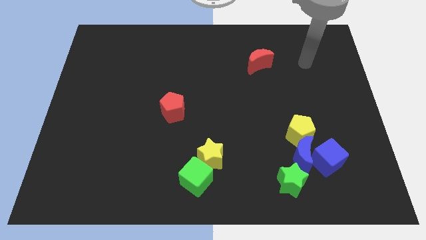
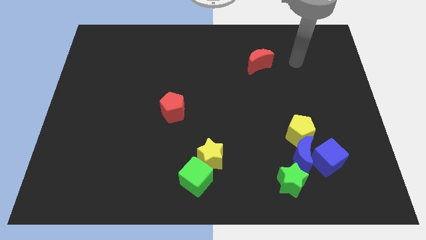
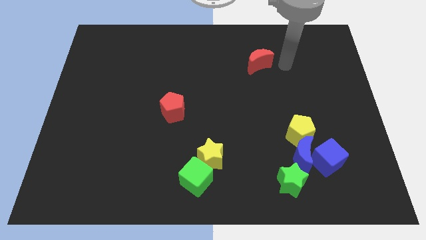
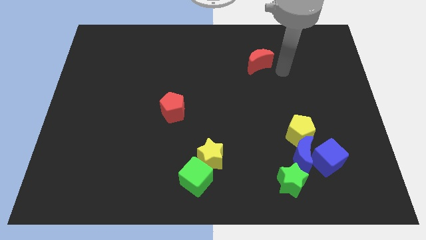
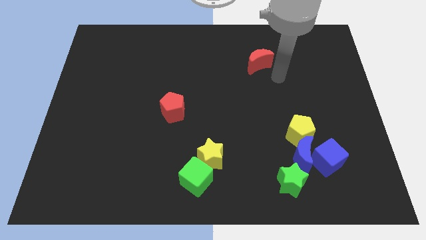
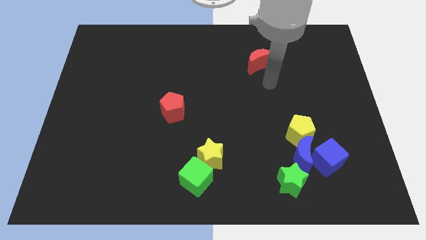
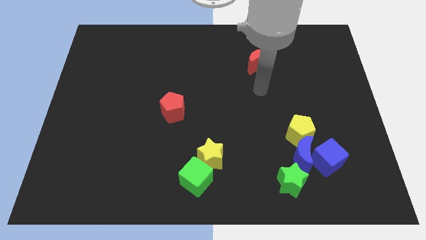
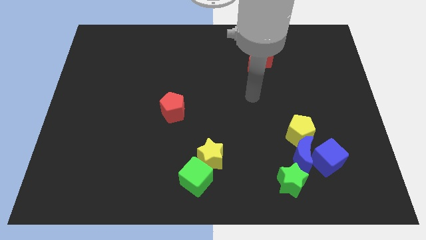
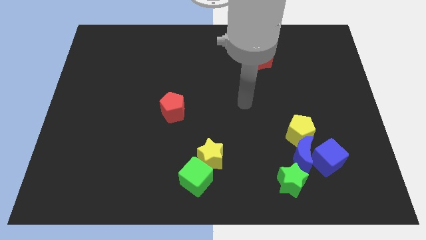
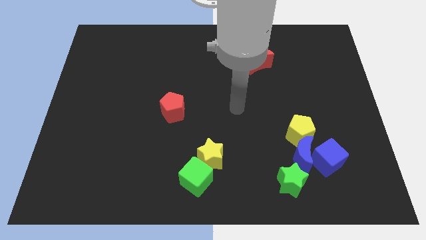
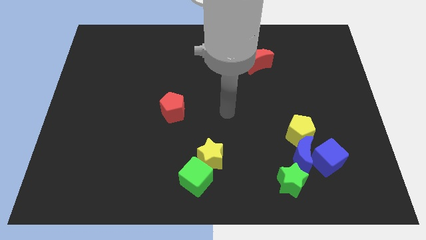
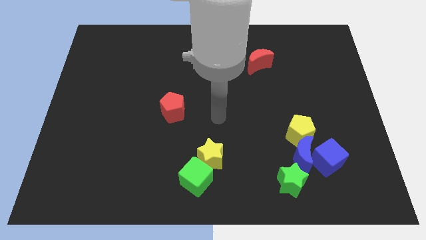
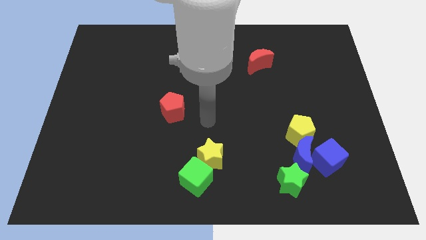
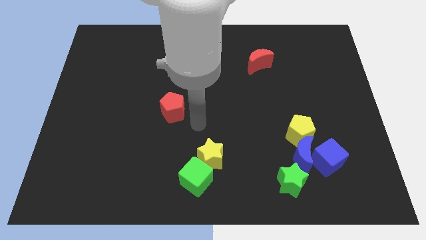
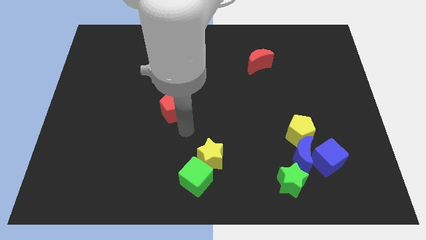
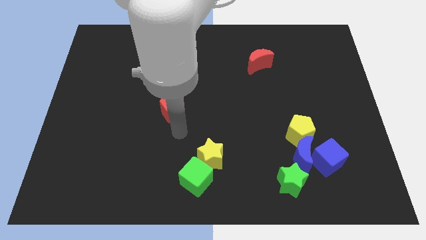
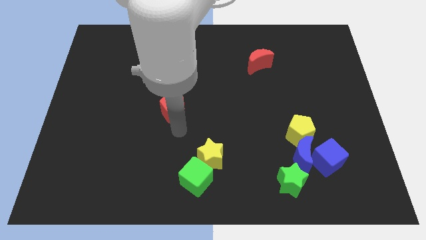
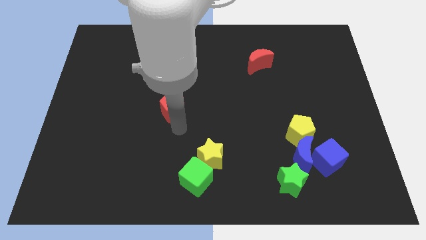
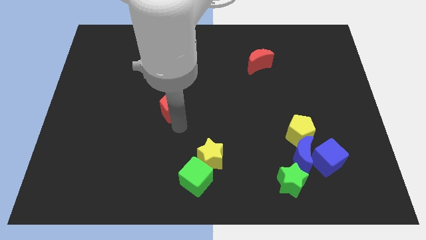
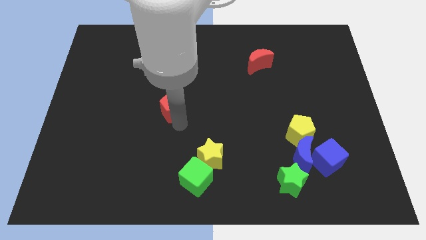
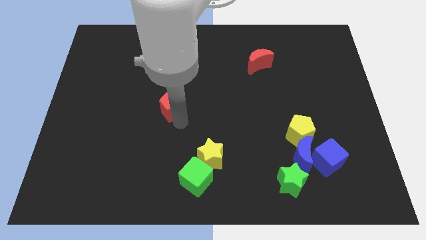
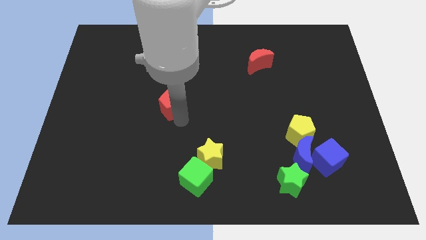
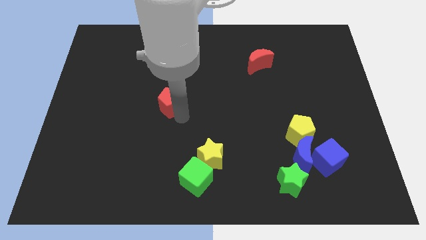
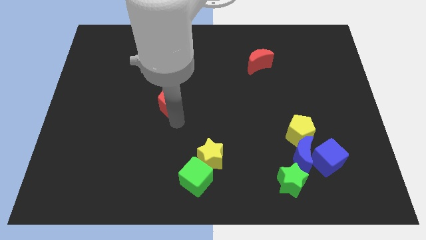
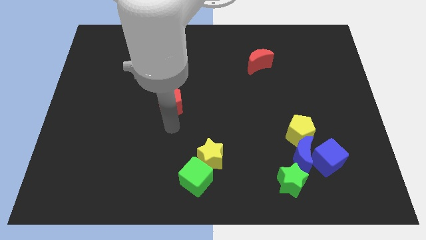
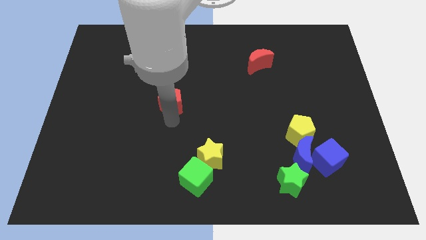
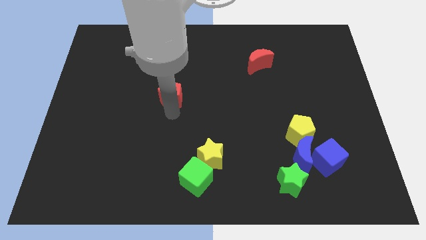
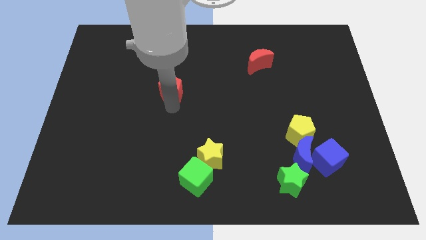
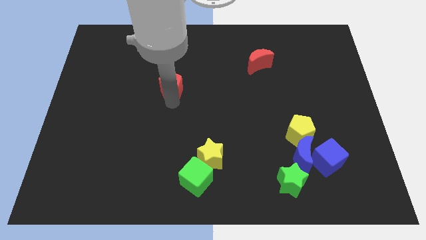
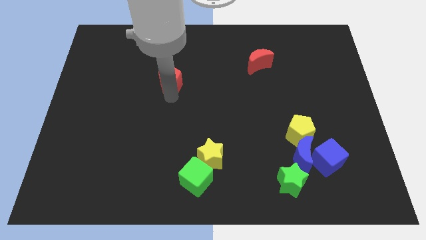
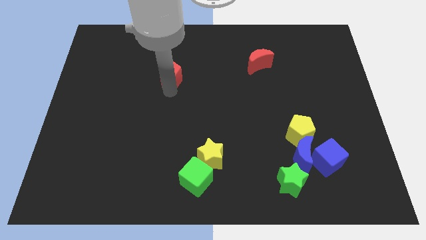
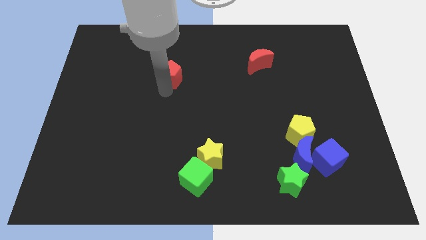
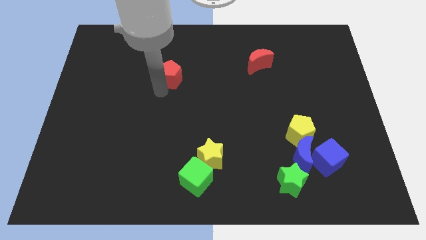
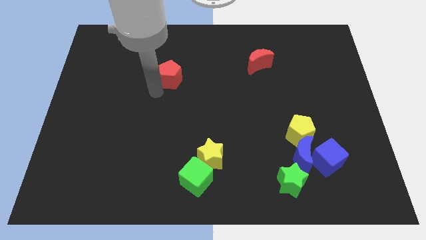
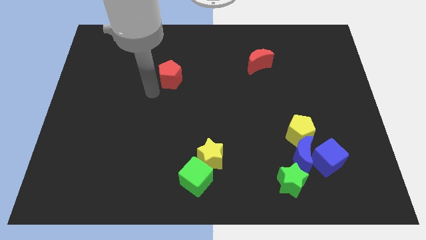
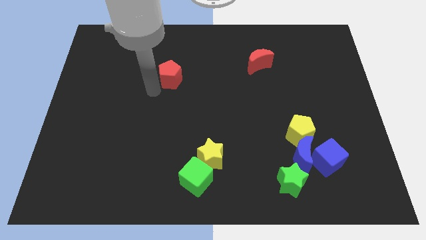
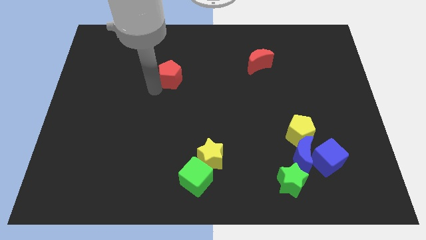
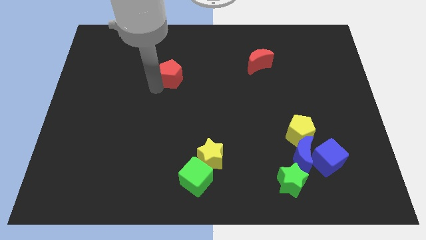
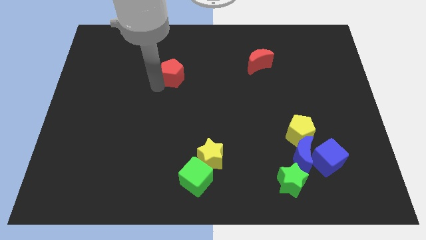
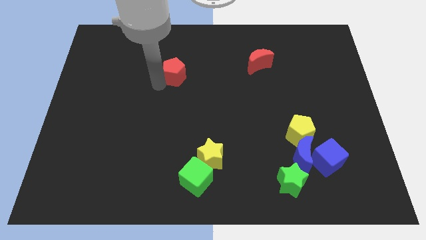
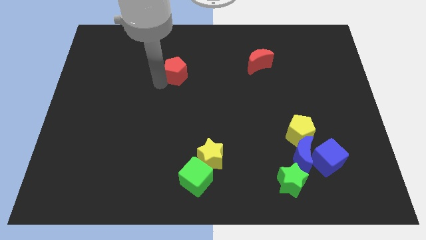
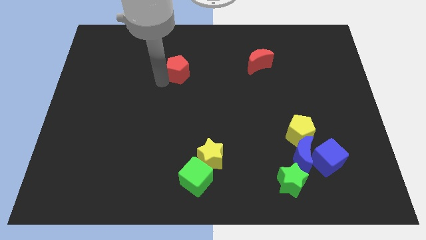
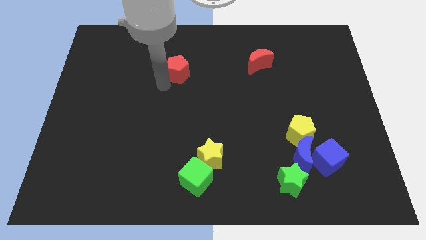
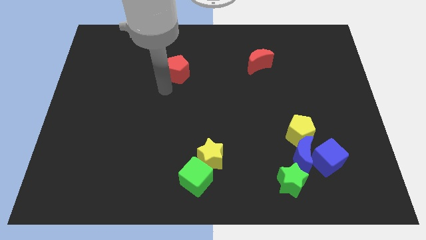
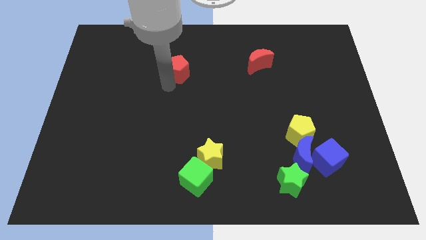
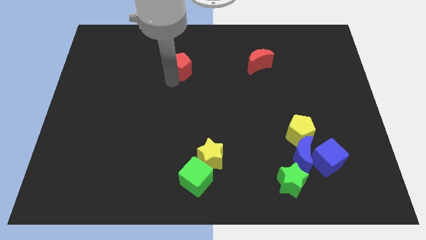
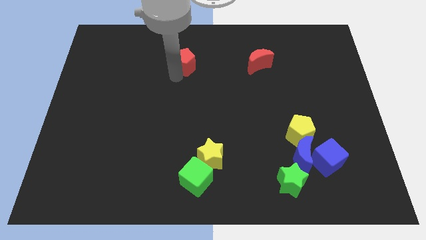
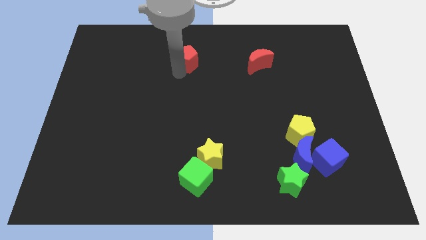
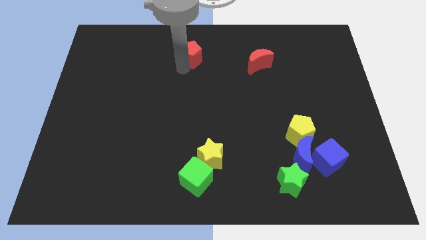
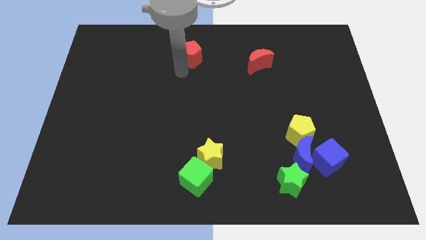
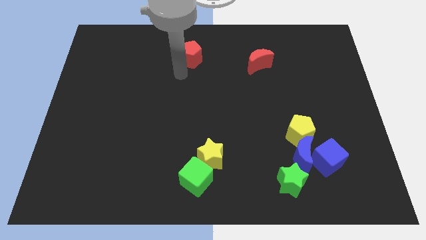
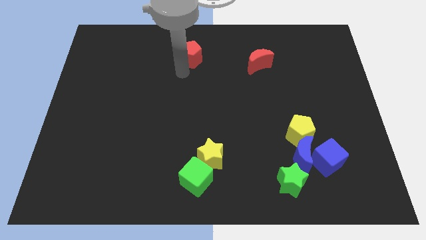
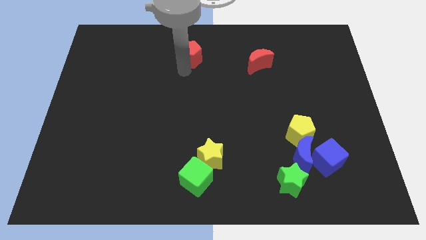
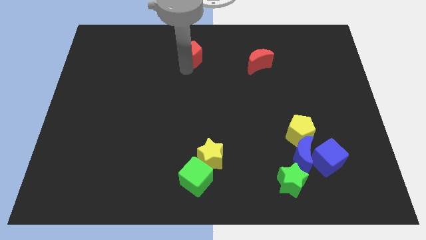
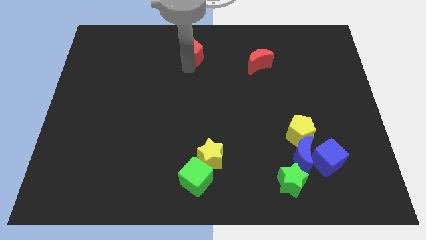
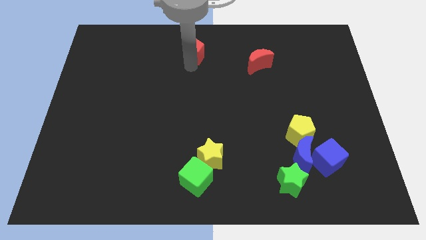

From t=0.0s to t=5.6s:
slide the red pentagon to the top side

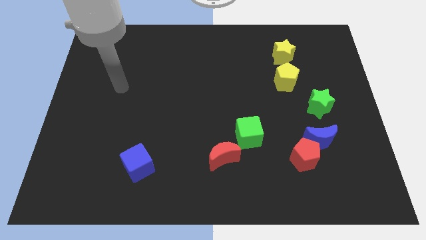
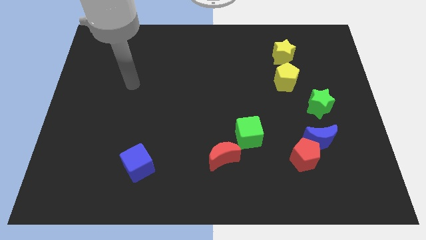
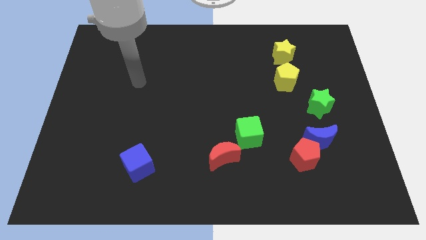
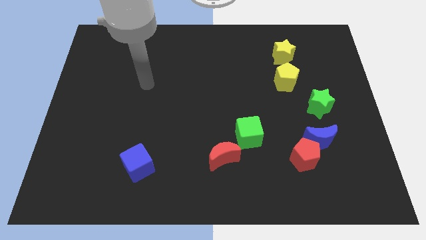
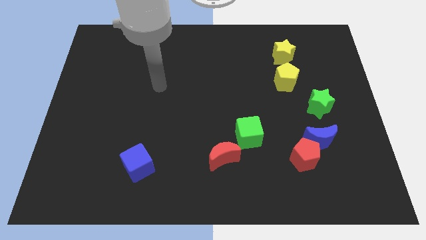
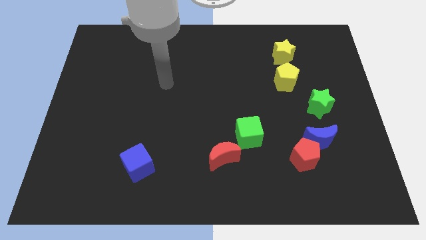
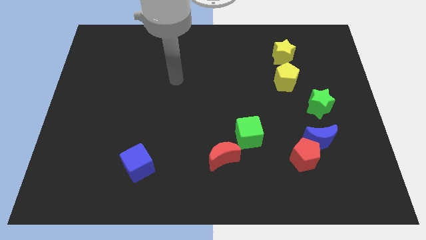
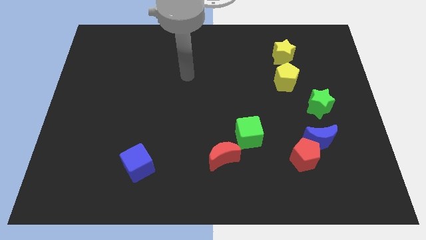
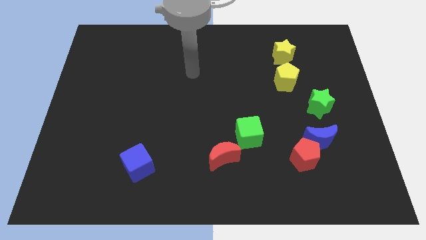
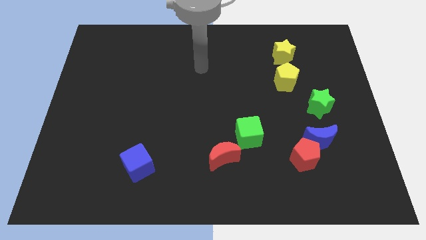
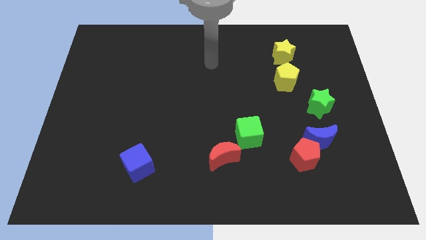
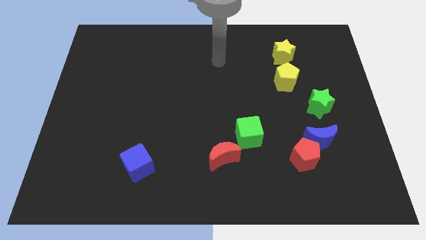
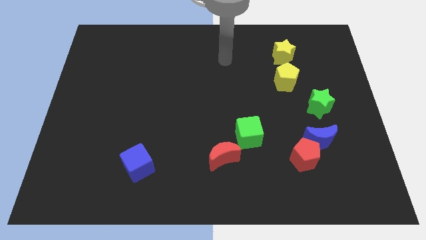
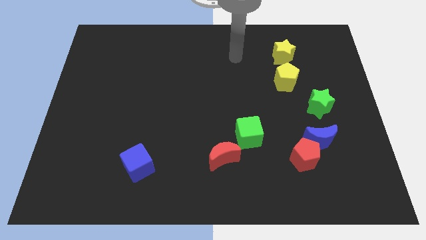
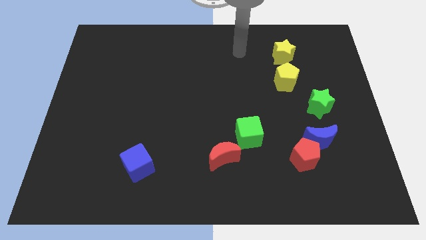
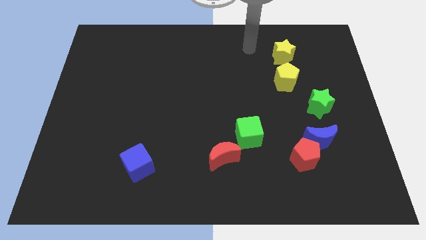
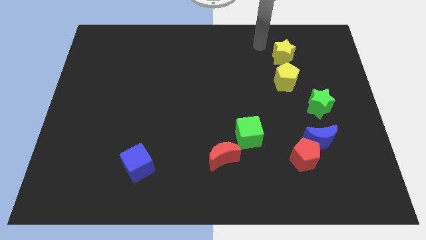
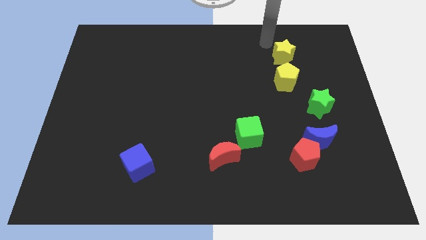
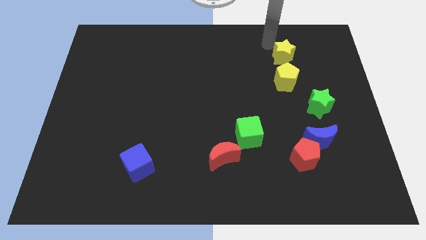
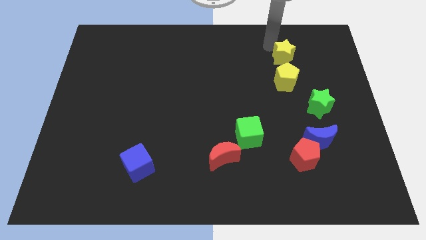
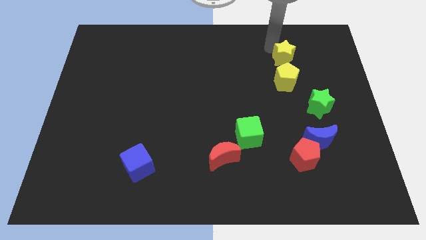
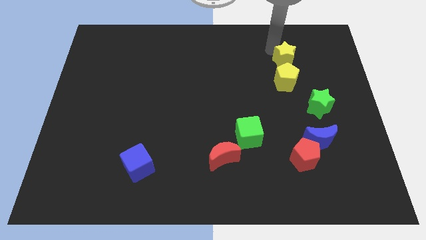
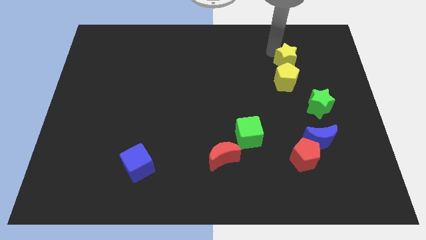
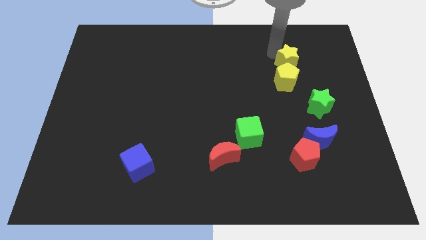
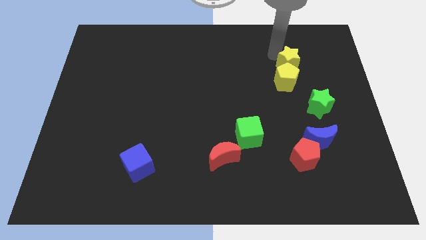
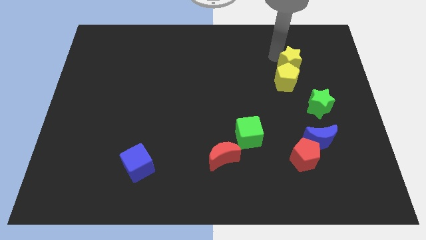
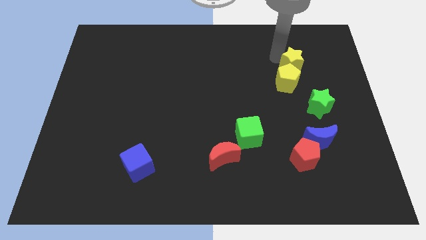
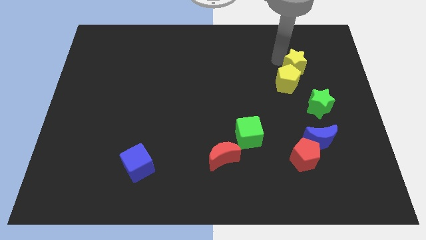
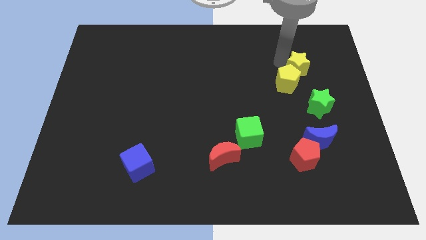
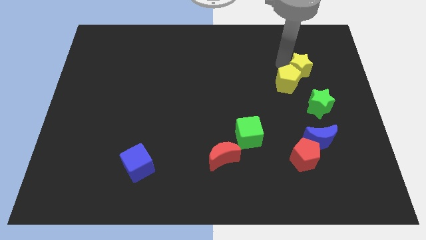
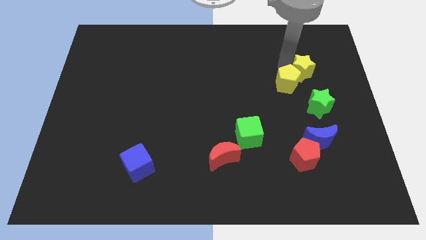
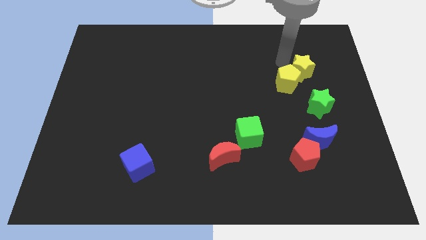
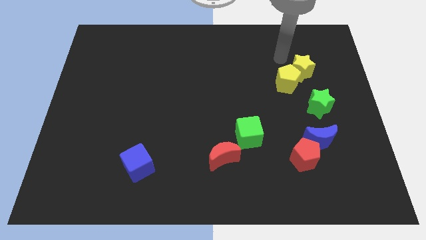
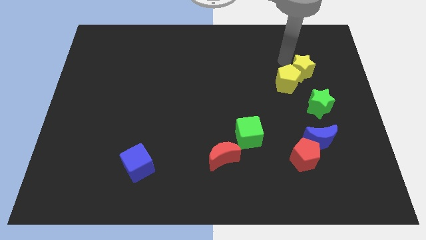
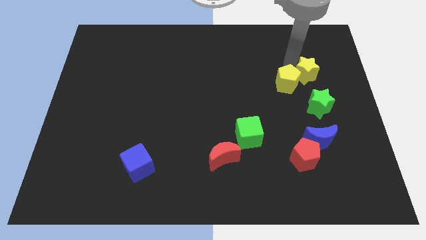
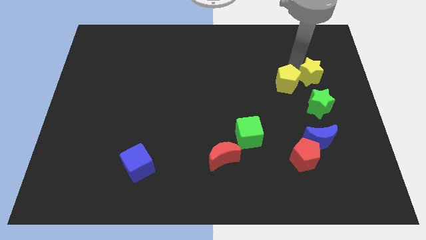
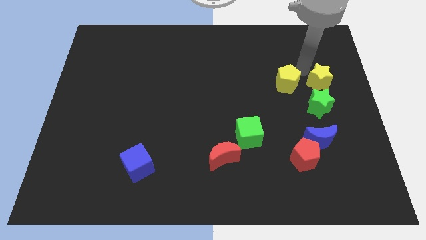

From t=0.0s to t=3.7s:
push the yellow star to the right side of the board
